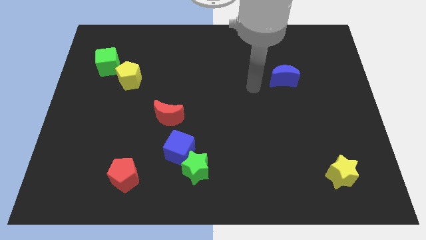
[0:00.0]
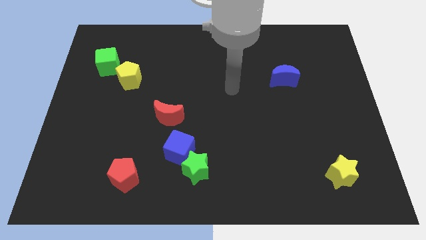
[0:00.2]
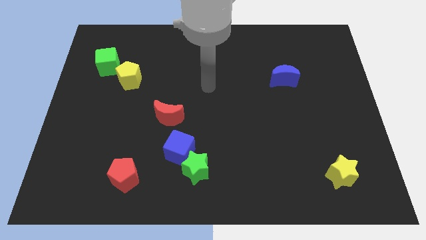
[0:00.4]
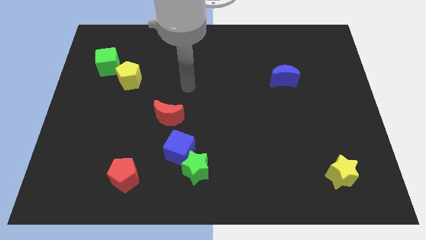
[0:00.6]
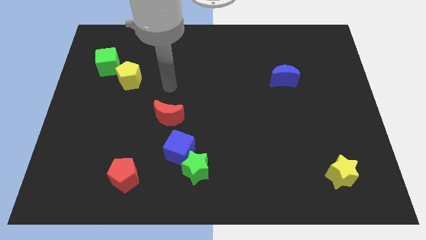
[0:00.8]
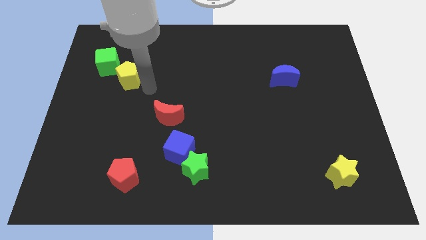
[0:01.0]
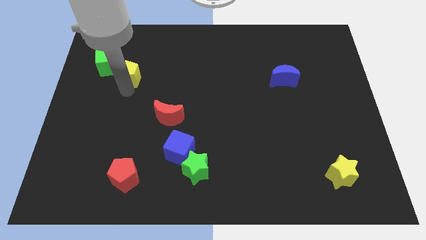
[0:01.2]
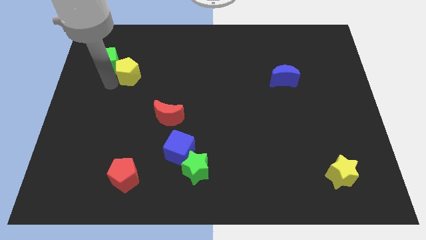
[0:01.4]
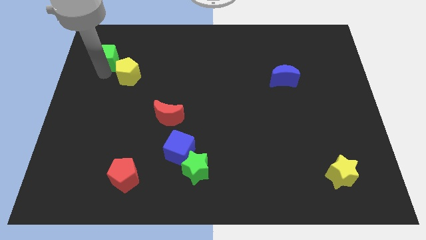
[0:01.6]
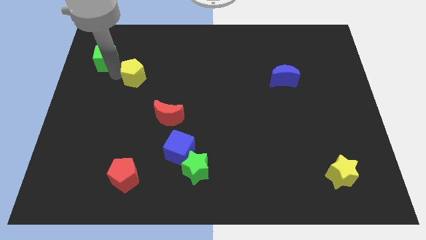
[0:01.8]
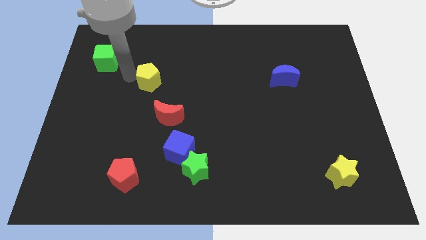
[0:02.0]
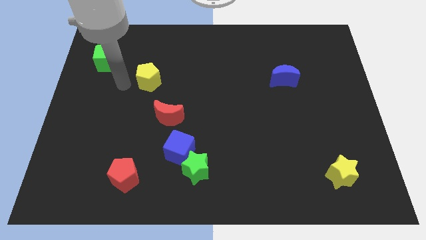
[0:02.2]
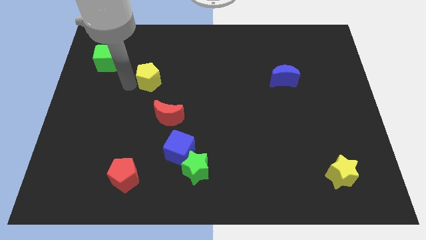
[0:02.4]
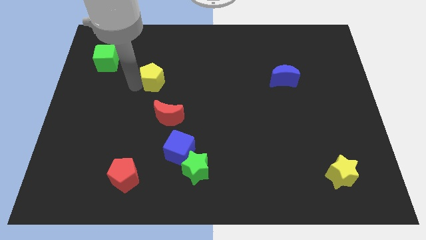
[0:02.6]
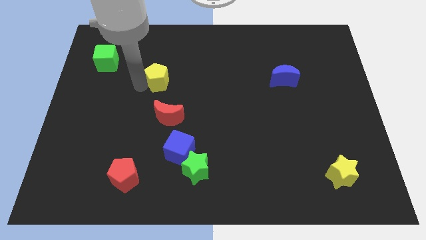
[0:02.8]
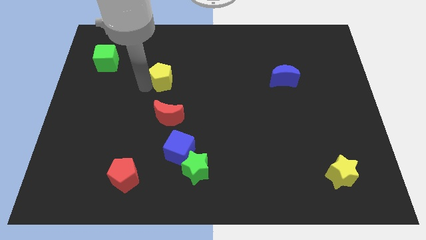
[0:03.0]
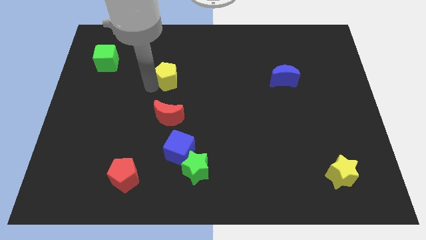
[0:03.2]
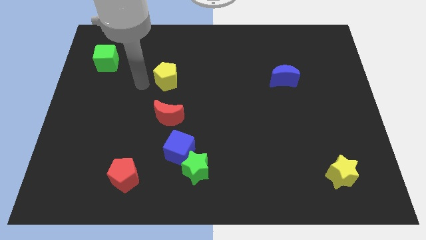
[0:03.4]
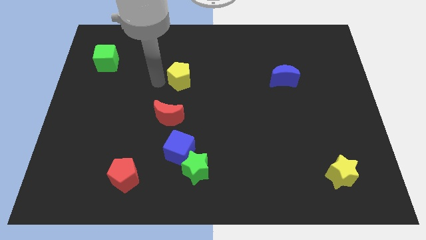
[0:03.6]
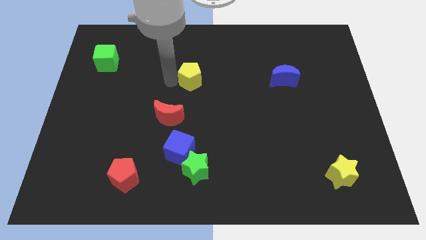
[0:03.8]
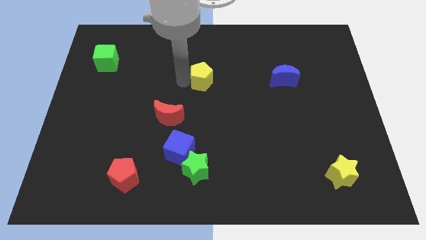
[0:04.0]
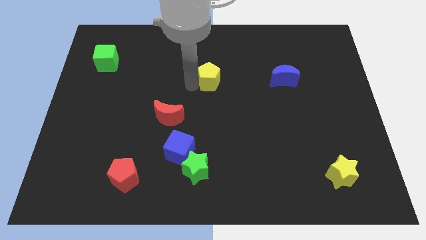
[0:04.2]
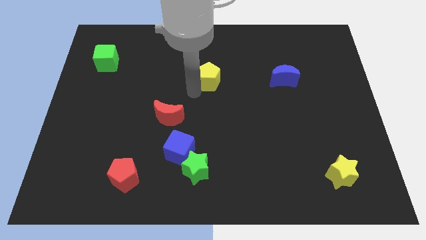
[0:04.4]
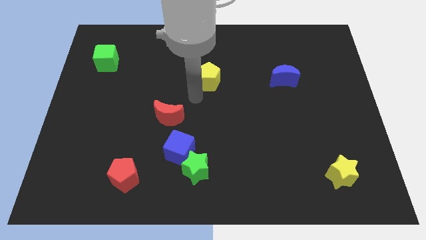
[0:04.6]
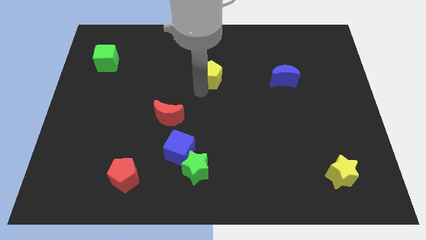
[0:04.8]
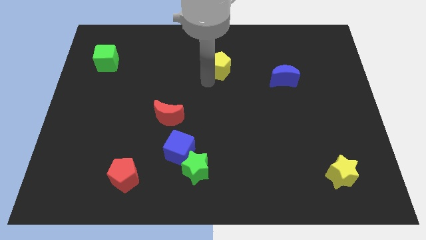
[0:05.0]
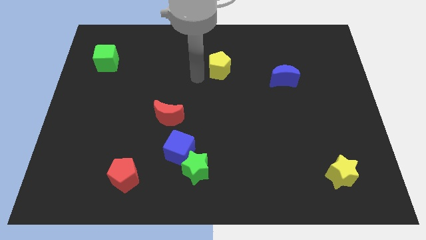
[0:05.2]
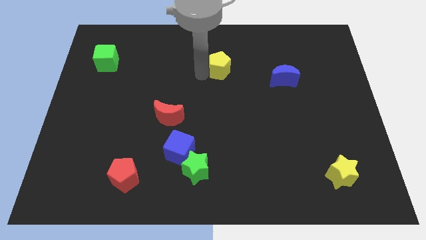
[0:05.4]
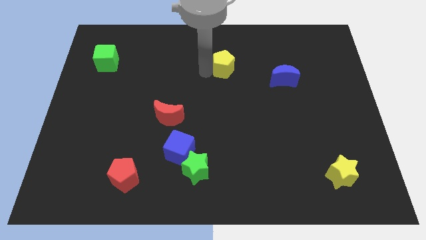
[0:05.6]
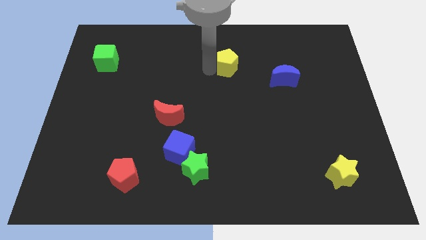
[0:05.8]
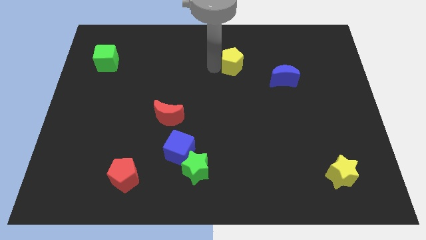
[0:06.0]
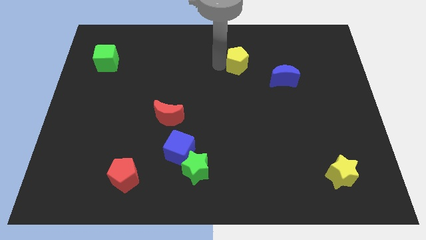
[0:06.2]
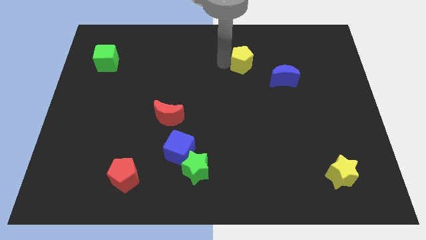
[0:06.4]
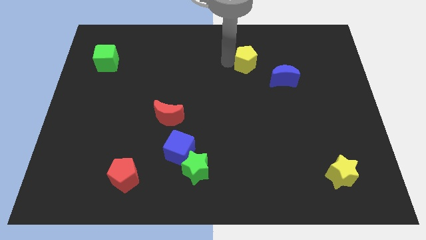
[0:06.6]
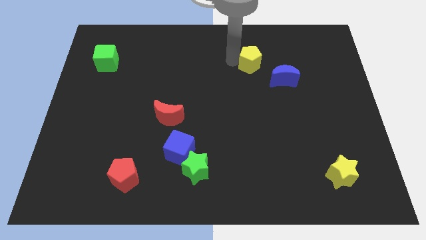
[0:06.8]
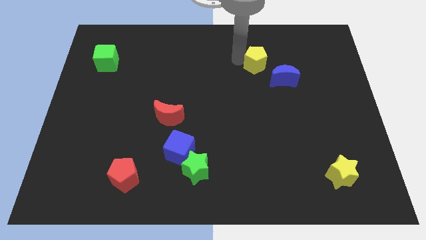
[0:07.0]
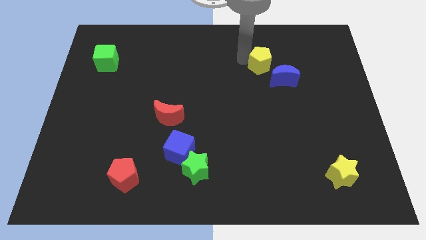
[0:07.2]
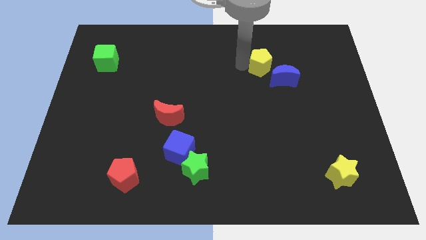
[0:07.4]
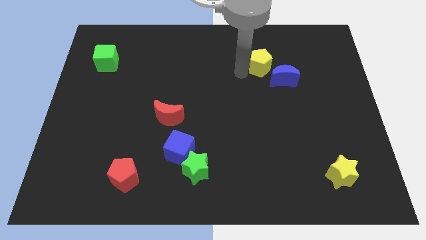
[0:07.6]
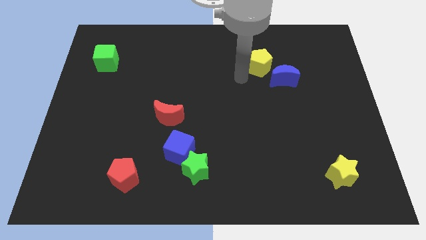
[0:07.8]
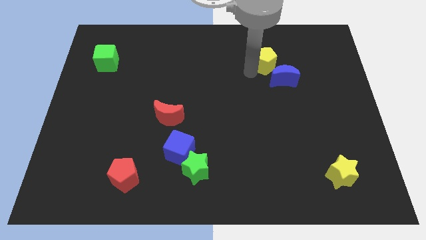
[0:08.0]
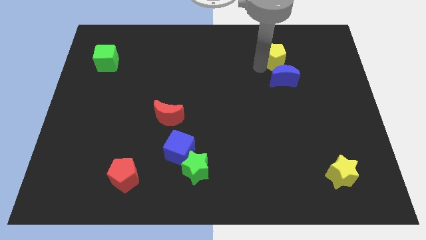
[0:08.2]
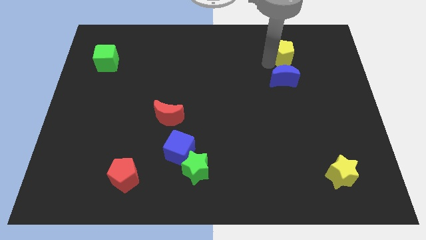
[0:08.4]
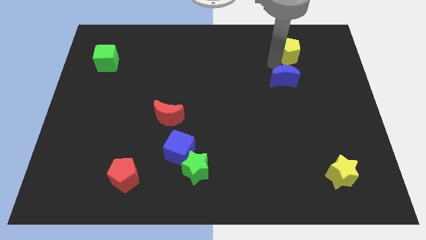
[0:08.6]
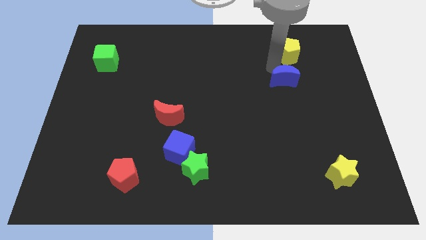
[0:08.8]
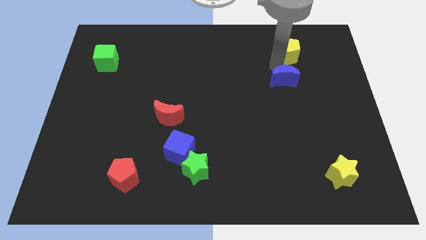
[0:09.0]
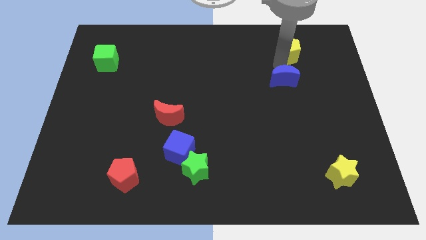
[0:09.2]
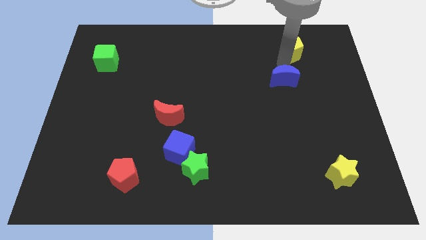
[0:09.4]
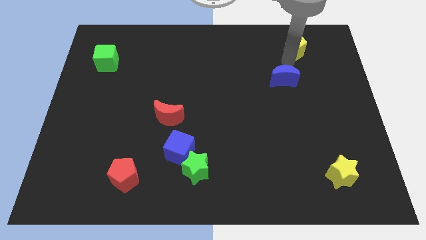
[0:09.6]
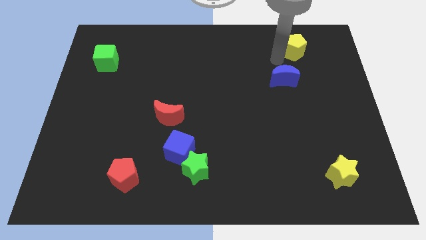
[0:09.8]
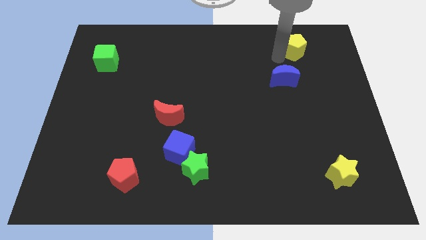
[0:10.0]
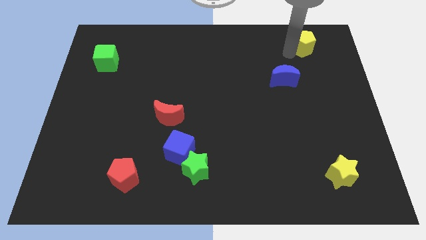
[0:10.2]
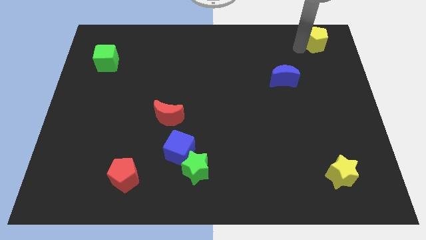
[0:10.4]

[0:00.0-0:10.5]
push the yellow pentagon to the top right

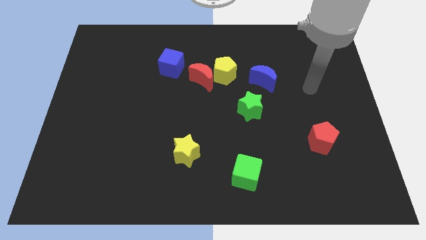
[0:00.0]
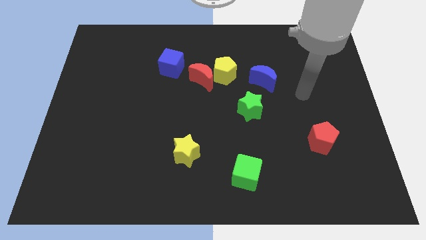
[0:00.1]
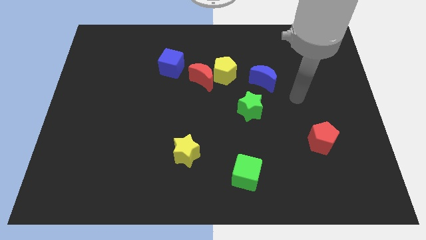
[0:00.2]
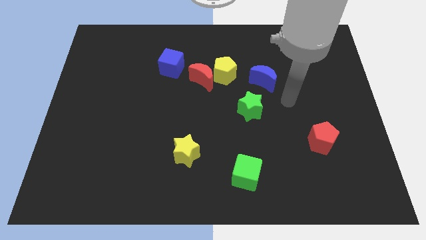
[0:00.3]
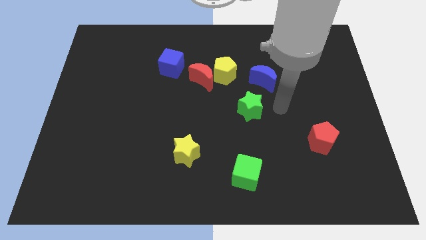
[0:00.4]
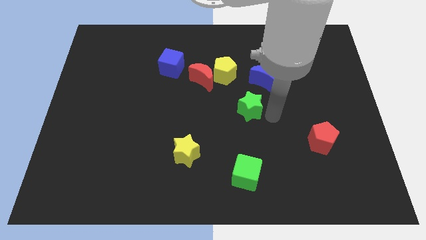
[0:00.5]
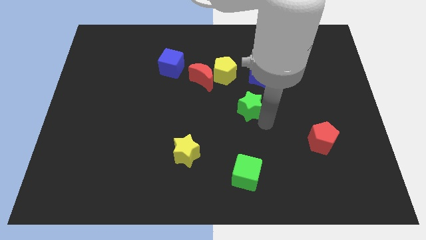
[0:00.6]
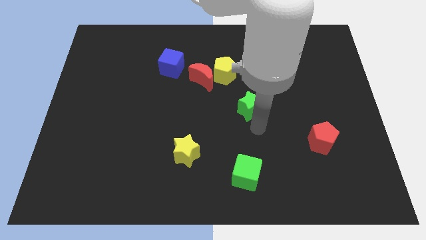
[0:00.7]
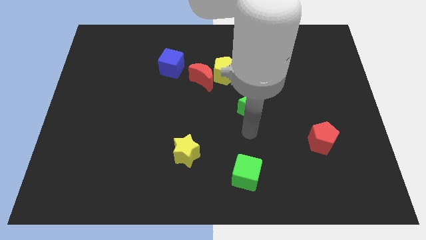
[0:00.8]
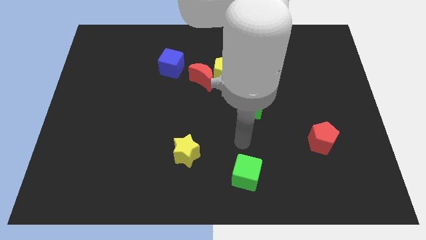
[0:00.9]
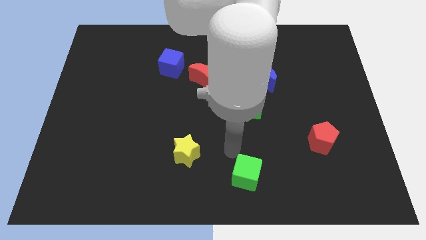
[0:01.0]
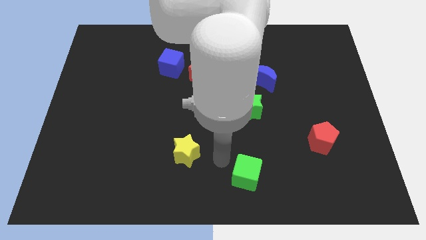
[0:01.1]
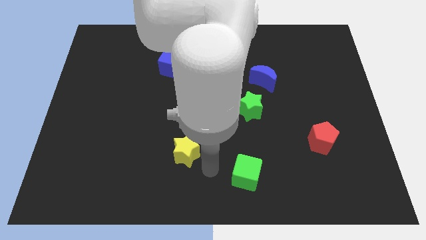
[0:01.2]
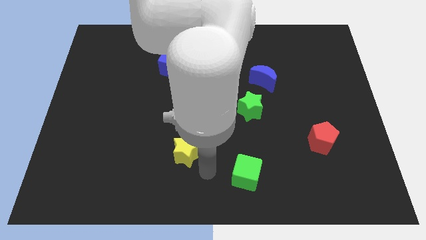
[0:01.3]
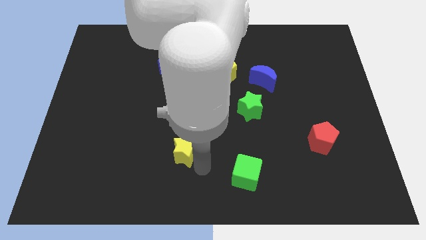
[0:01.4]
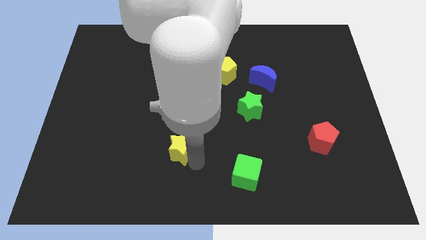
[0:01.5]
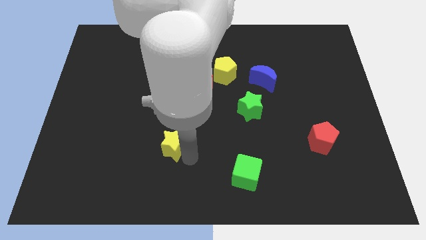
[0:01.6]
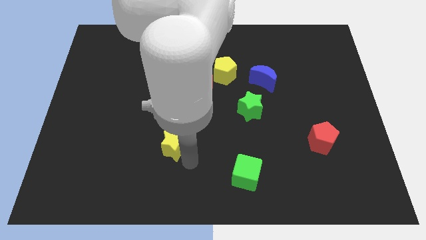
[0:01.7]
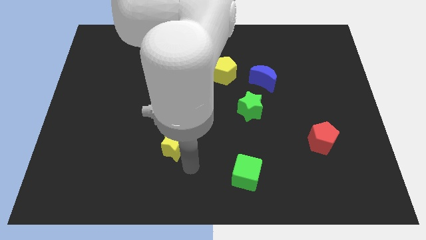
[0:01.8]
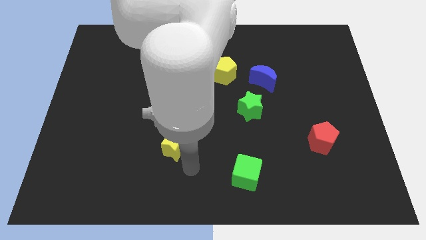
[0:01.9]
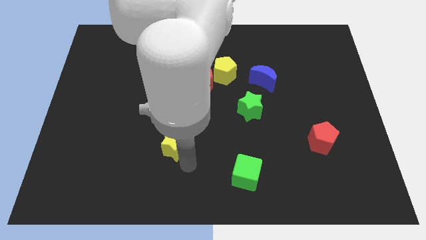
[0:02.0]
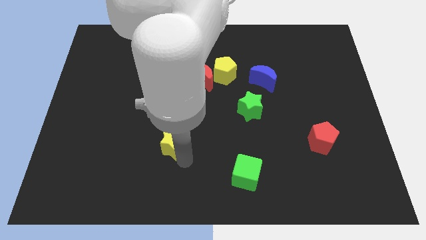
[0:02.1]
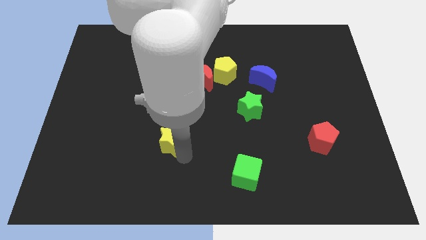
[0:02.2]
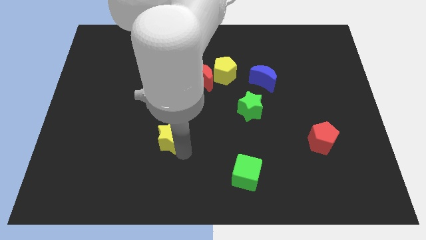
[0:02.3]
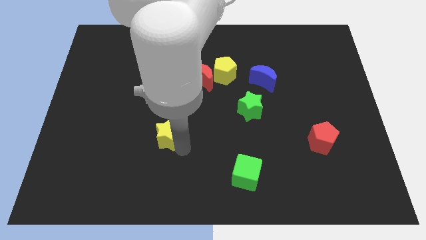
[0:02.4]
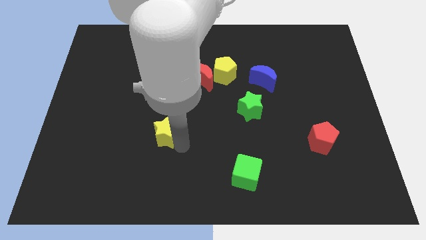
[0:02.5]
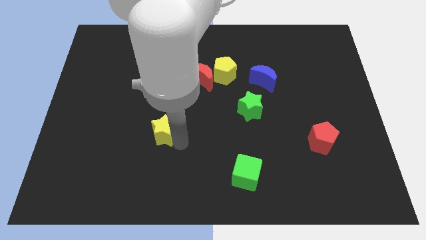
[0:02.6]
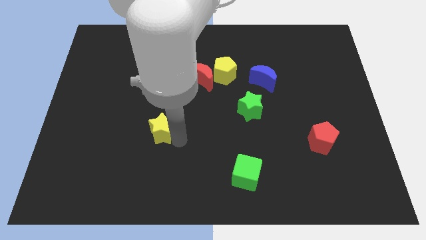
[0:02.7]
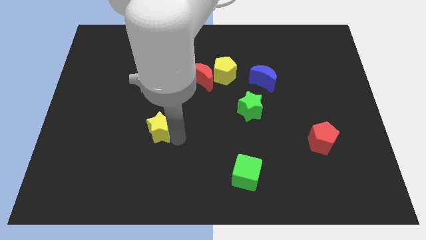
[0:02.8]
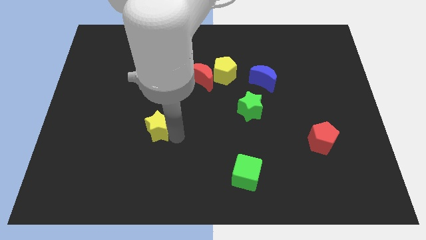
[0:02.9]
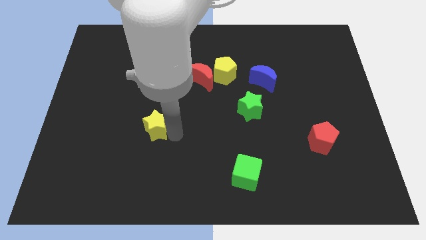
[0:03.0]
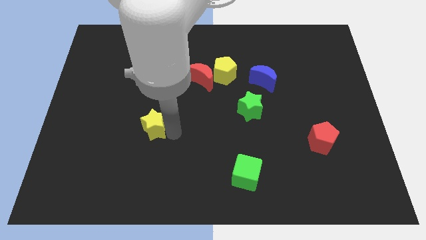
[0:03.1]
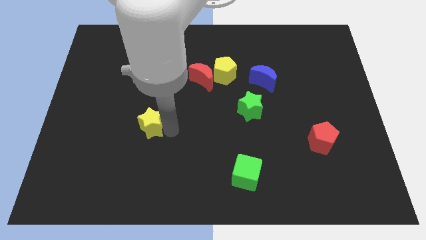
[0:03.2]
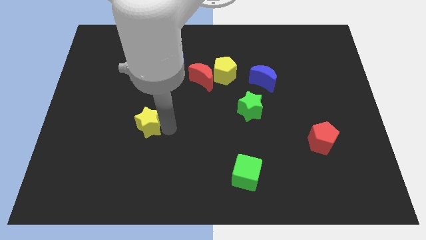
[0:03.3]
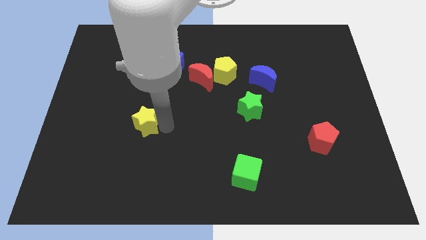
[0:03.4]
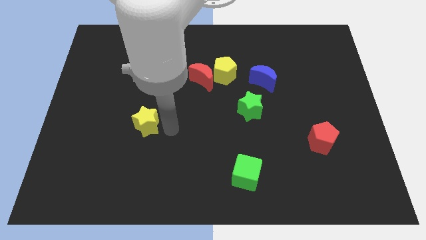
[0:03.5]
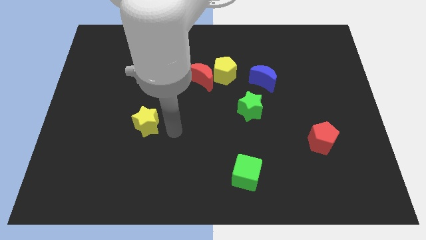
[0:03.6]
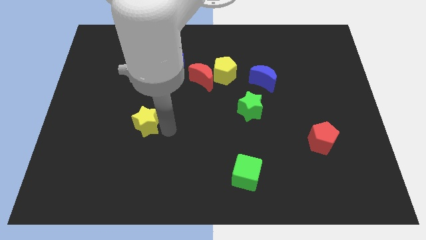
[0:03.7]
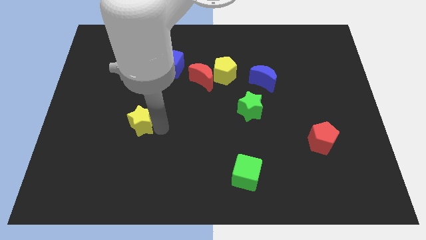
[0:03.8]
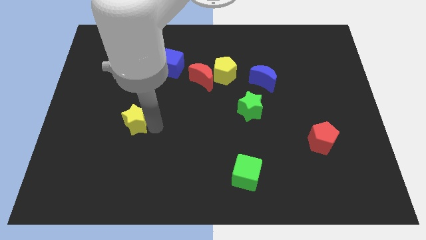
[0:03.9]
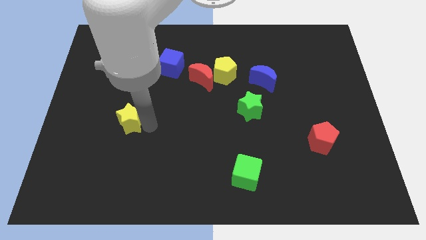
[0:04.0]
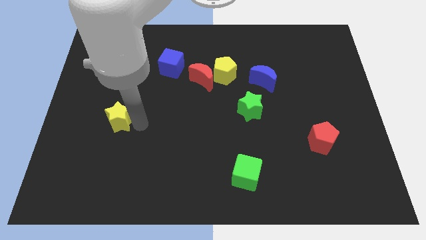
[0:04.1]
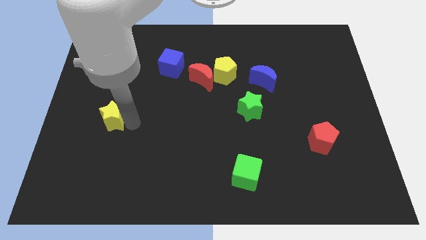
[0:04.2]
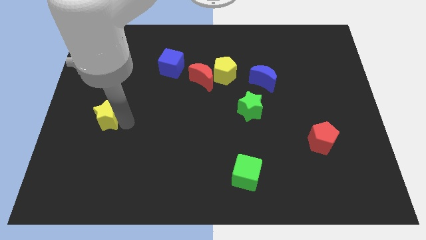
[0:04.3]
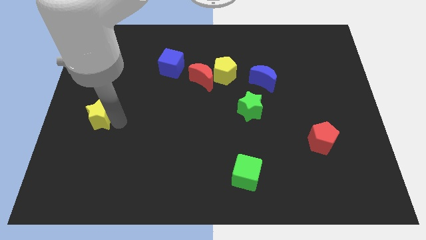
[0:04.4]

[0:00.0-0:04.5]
put the yellow star to the left side
